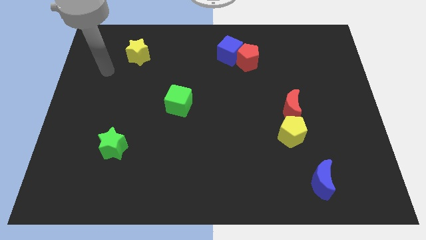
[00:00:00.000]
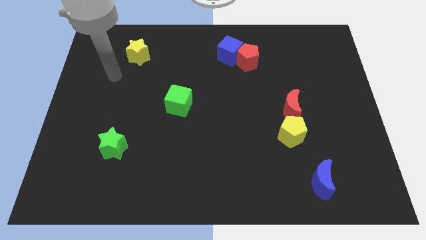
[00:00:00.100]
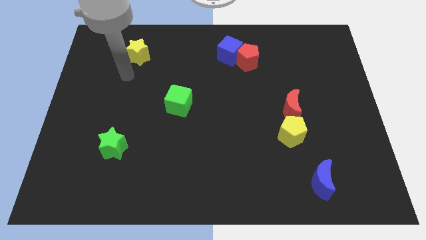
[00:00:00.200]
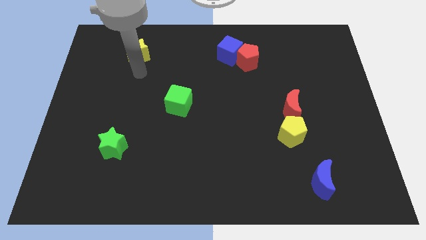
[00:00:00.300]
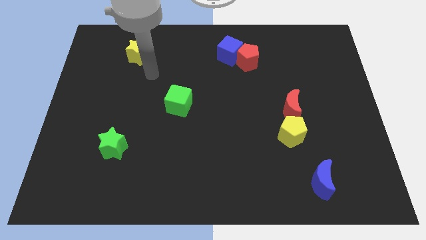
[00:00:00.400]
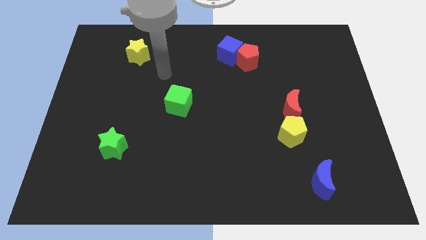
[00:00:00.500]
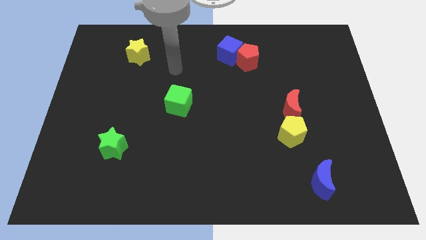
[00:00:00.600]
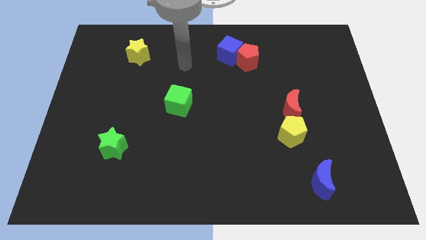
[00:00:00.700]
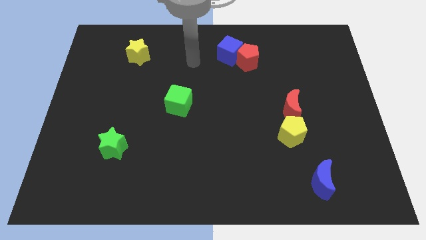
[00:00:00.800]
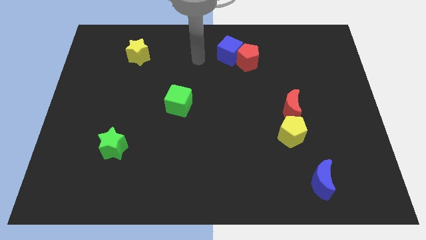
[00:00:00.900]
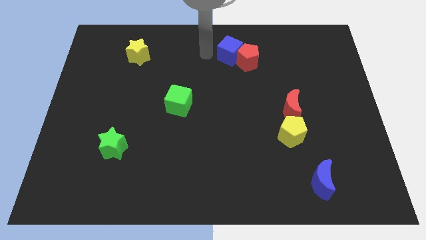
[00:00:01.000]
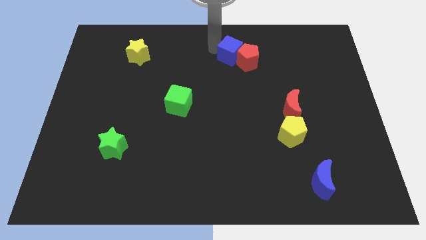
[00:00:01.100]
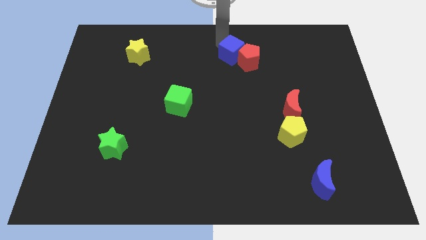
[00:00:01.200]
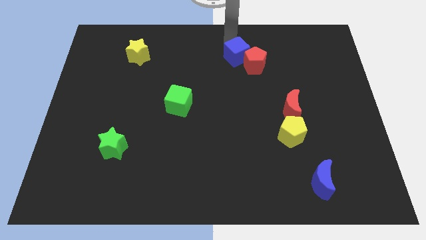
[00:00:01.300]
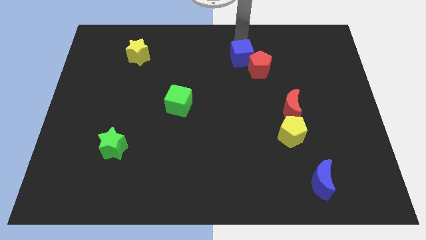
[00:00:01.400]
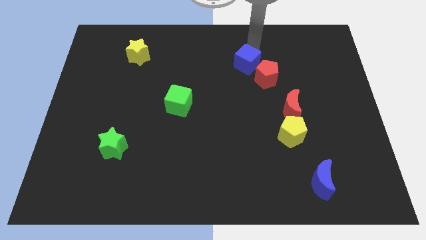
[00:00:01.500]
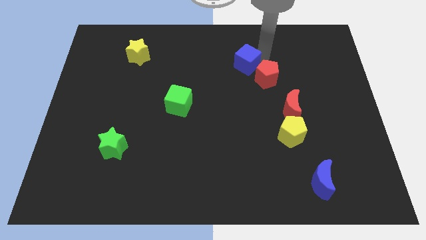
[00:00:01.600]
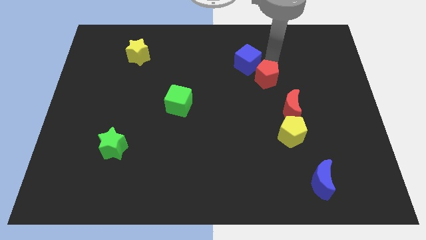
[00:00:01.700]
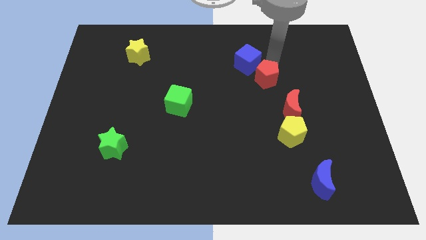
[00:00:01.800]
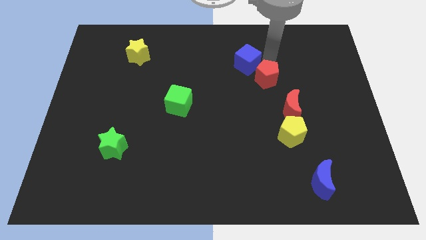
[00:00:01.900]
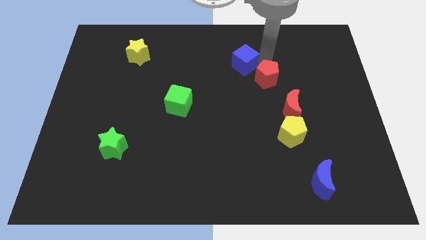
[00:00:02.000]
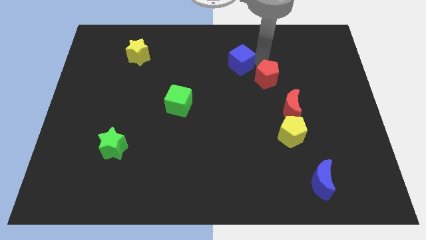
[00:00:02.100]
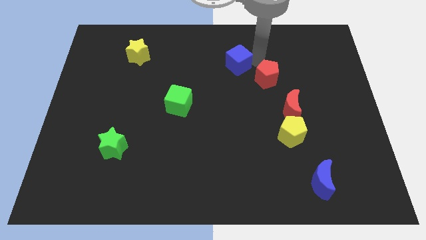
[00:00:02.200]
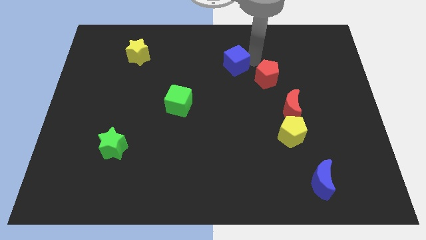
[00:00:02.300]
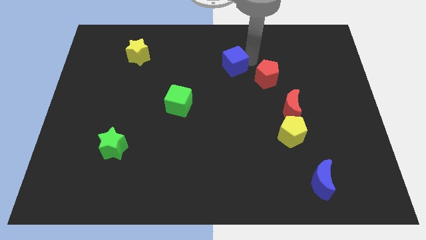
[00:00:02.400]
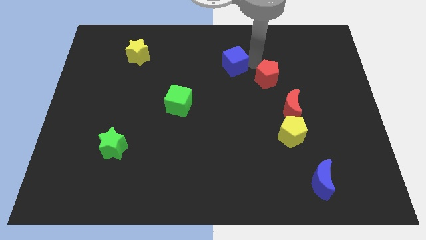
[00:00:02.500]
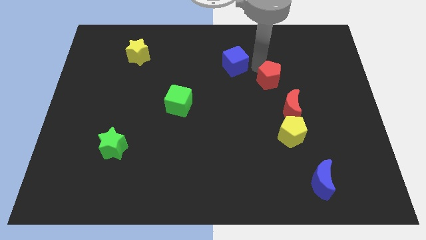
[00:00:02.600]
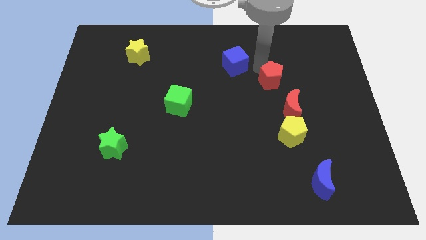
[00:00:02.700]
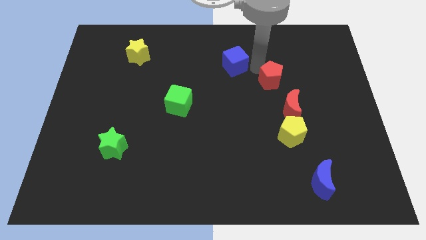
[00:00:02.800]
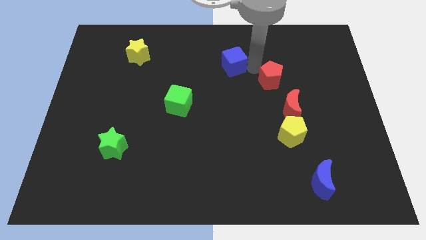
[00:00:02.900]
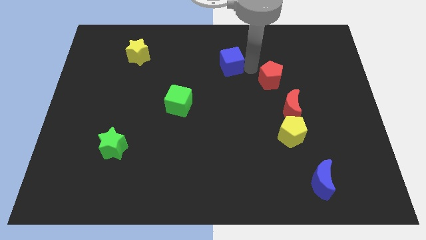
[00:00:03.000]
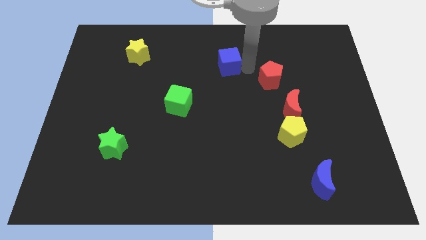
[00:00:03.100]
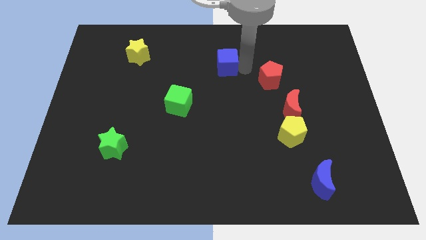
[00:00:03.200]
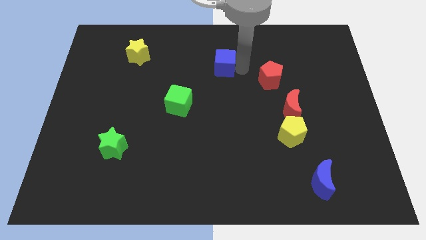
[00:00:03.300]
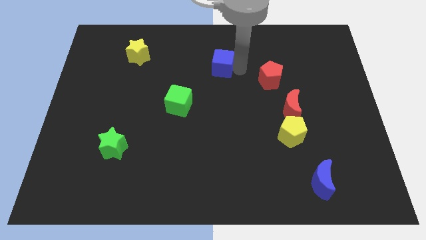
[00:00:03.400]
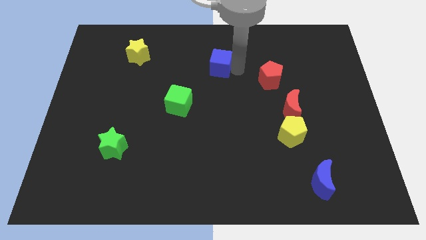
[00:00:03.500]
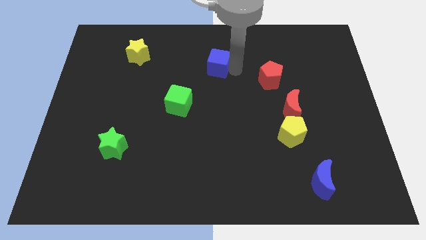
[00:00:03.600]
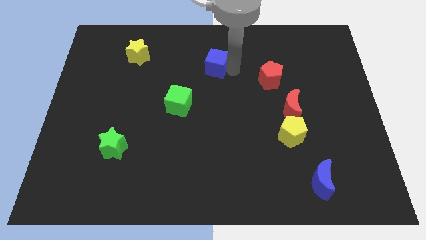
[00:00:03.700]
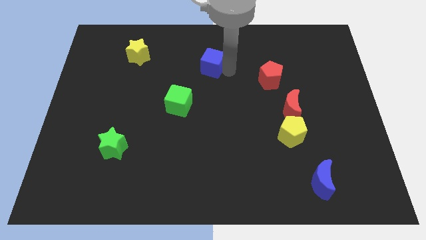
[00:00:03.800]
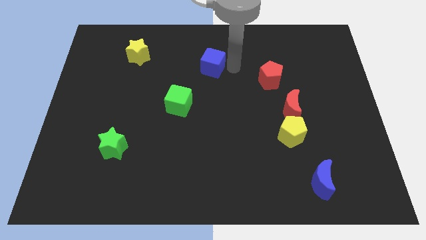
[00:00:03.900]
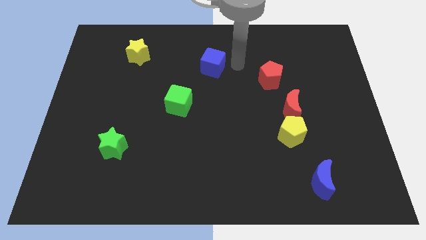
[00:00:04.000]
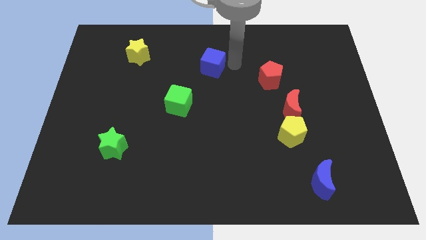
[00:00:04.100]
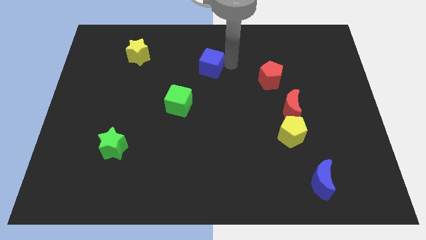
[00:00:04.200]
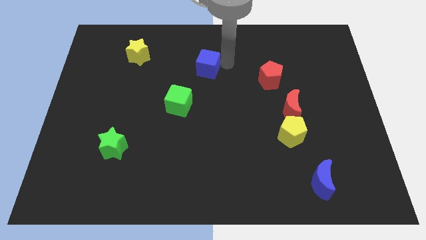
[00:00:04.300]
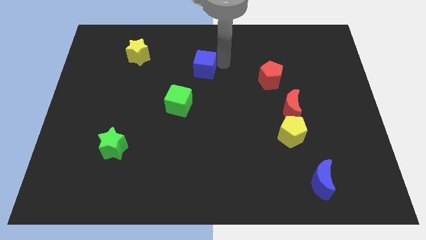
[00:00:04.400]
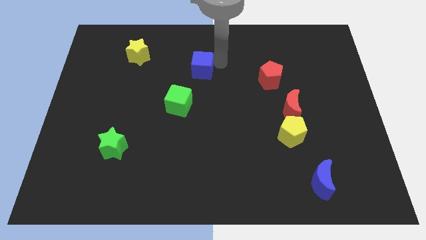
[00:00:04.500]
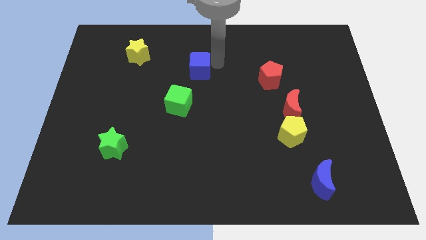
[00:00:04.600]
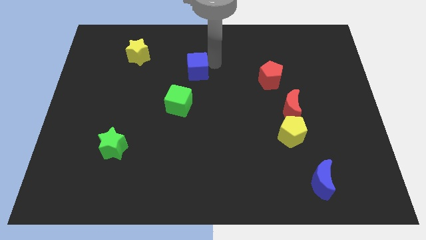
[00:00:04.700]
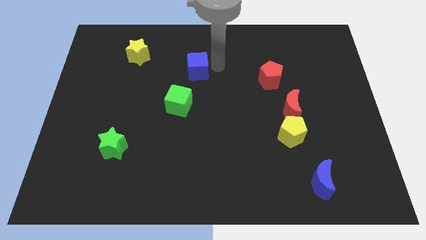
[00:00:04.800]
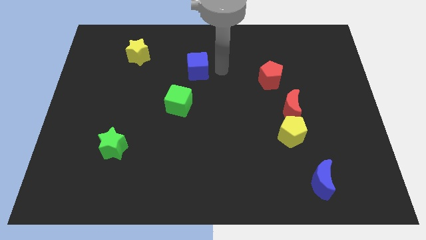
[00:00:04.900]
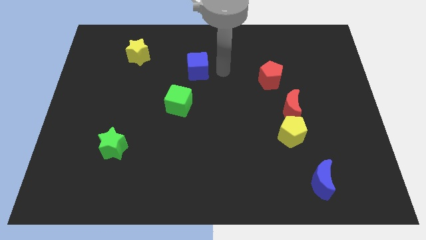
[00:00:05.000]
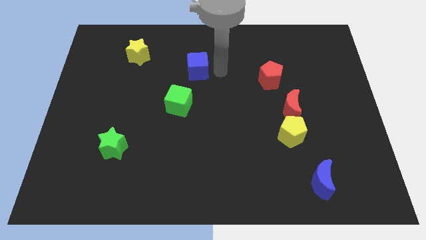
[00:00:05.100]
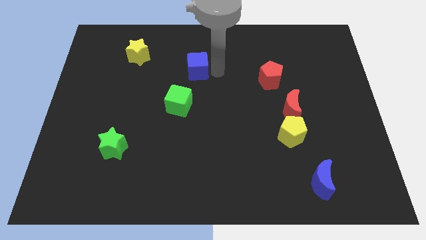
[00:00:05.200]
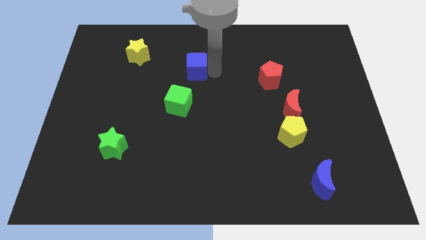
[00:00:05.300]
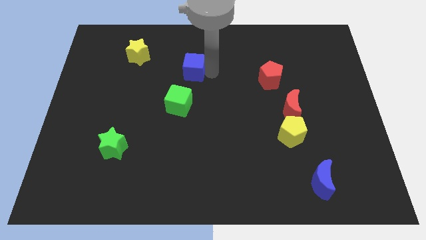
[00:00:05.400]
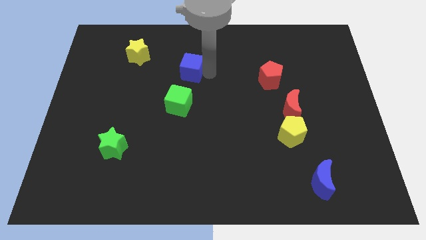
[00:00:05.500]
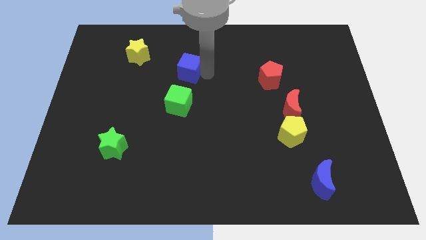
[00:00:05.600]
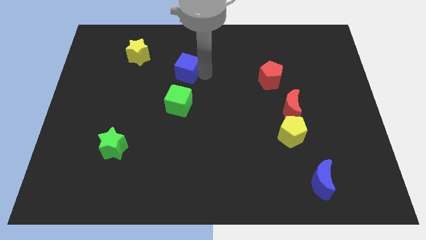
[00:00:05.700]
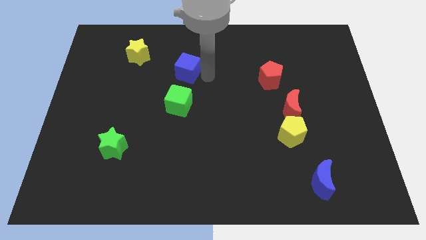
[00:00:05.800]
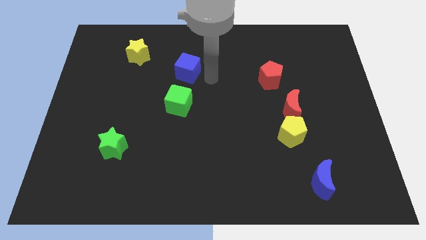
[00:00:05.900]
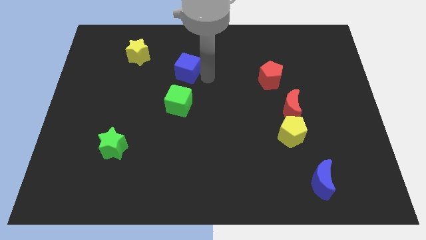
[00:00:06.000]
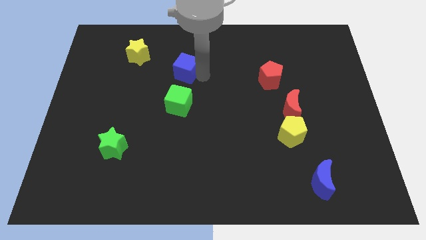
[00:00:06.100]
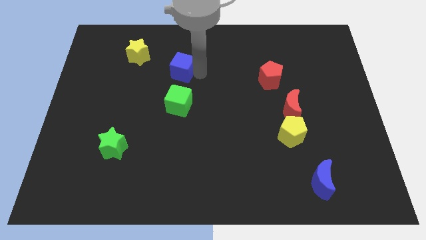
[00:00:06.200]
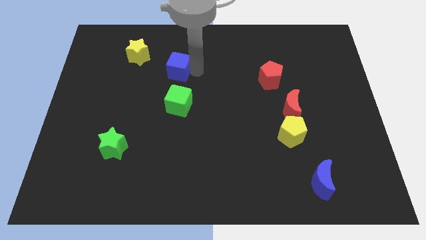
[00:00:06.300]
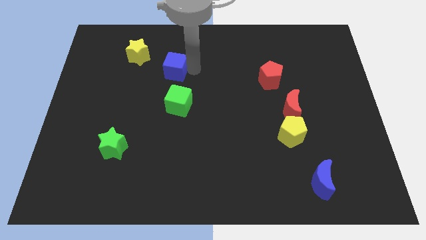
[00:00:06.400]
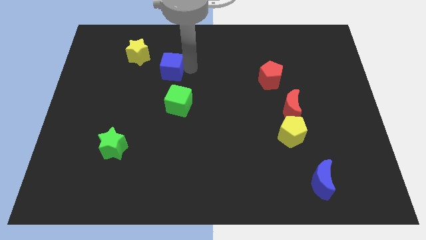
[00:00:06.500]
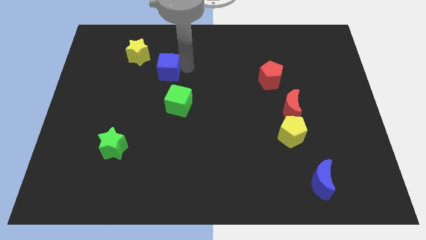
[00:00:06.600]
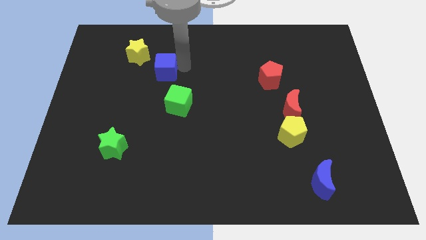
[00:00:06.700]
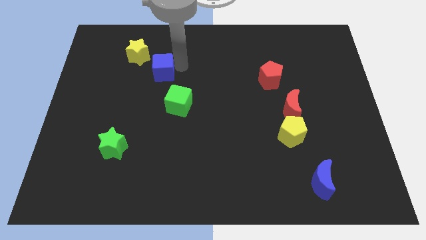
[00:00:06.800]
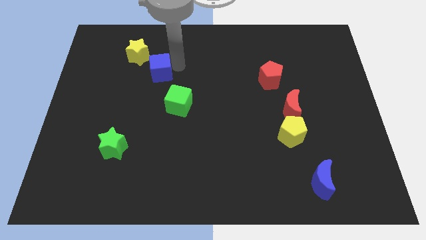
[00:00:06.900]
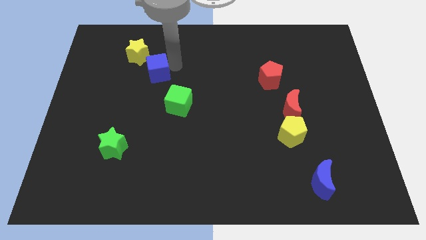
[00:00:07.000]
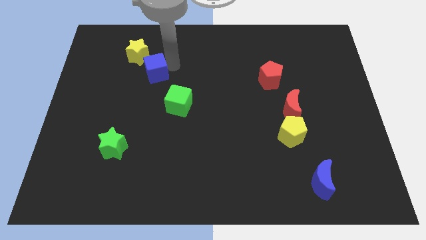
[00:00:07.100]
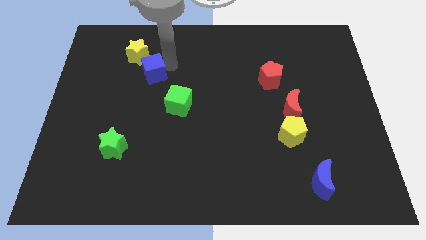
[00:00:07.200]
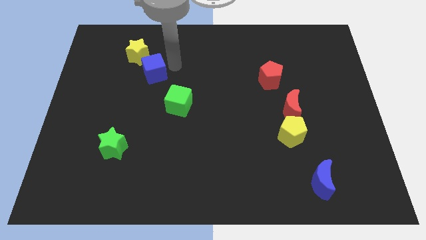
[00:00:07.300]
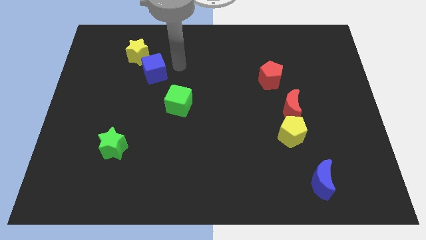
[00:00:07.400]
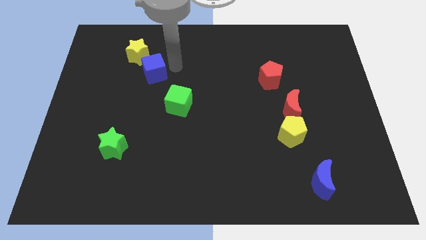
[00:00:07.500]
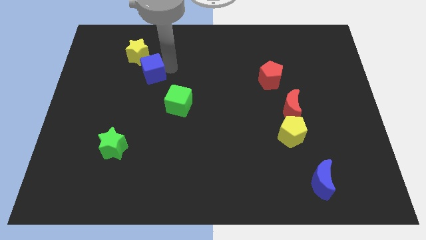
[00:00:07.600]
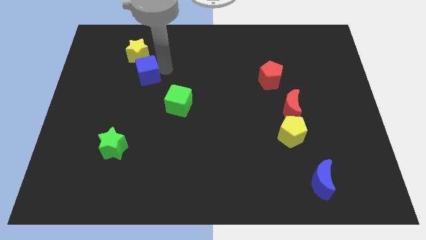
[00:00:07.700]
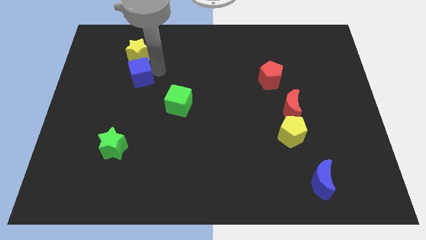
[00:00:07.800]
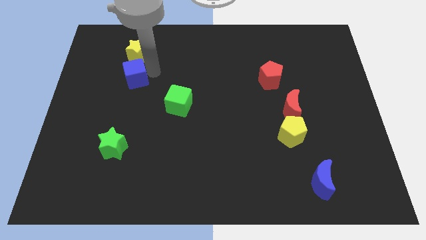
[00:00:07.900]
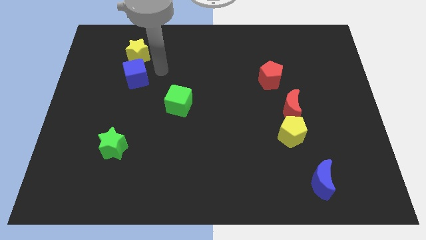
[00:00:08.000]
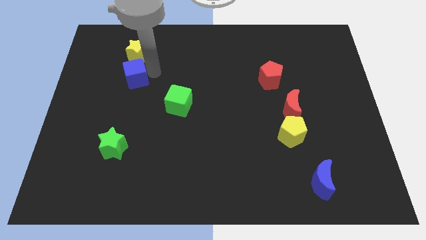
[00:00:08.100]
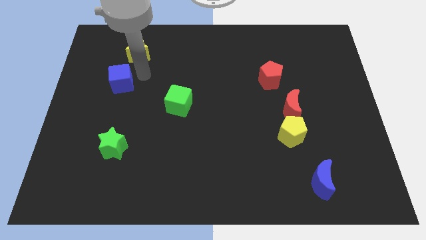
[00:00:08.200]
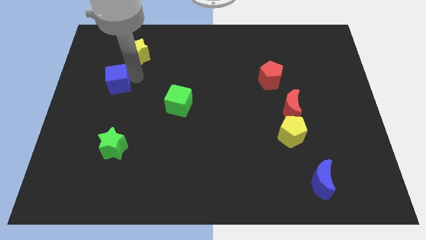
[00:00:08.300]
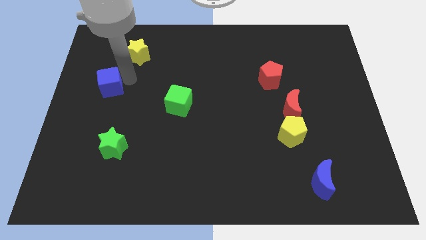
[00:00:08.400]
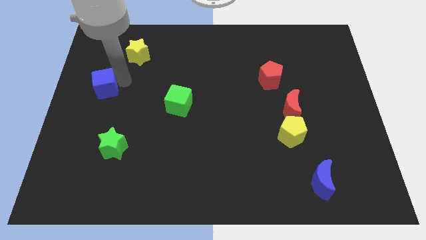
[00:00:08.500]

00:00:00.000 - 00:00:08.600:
push the blue cube to the left side
